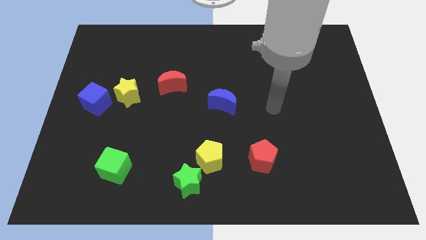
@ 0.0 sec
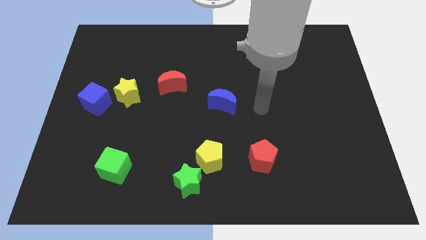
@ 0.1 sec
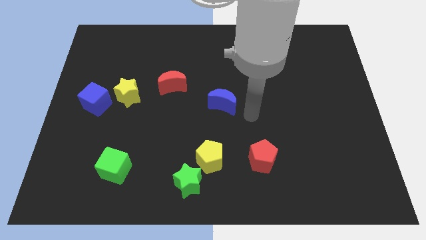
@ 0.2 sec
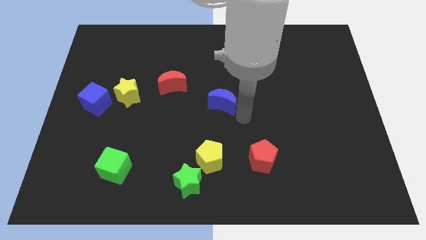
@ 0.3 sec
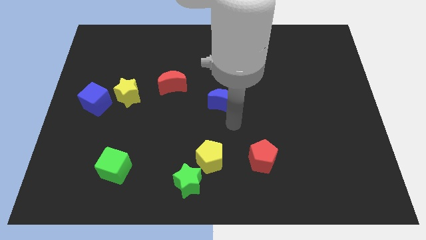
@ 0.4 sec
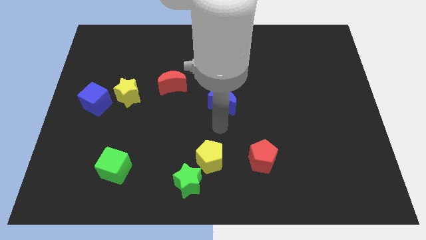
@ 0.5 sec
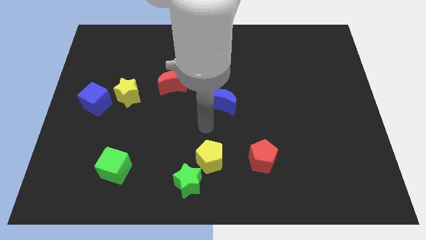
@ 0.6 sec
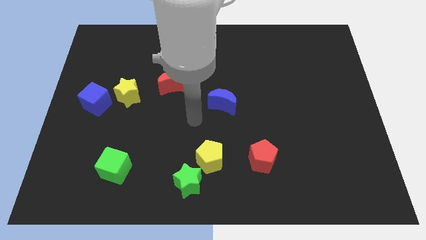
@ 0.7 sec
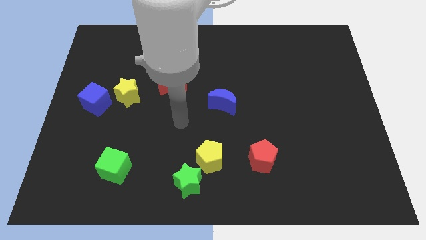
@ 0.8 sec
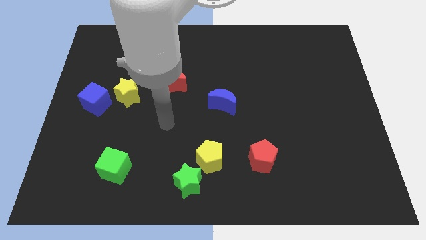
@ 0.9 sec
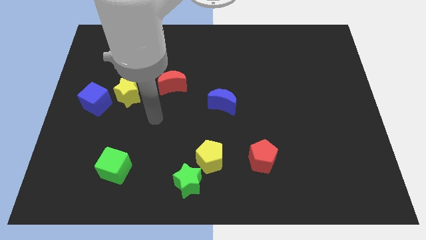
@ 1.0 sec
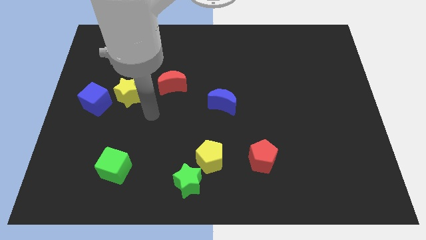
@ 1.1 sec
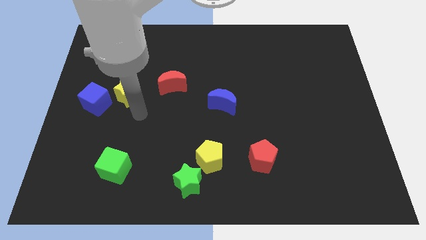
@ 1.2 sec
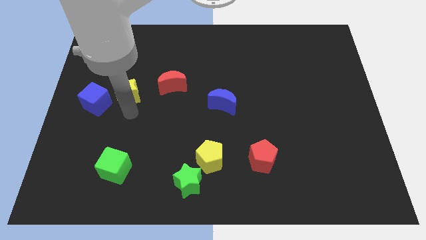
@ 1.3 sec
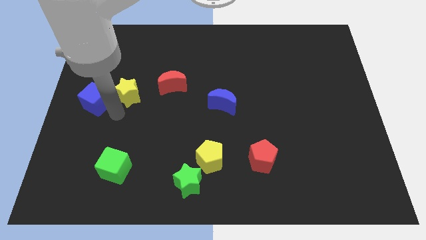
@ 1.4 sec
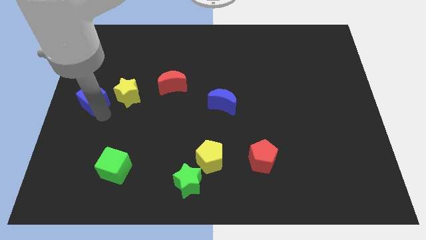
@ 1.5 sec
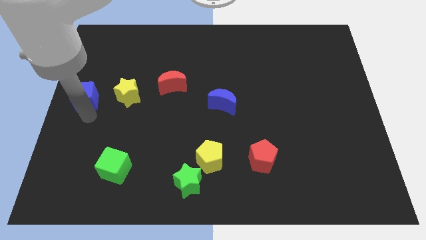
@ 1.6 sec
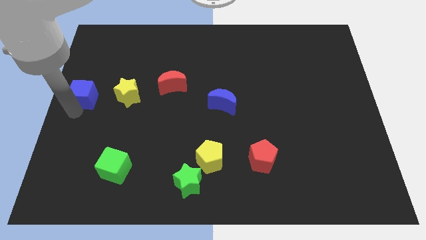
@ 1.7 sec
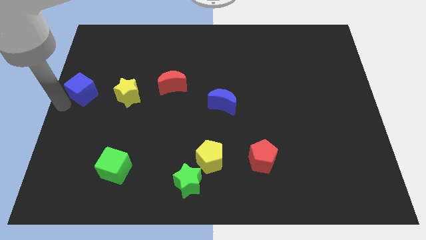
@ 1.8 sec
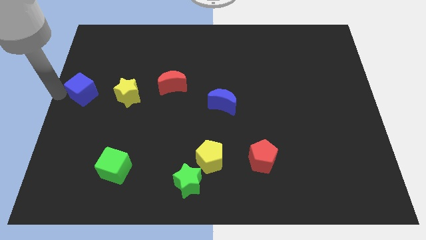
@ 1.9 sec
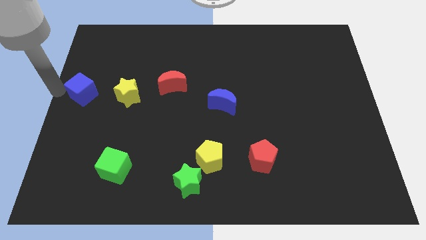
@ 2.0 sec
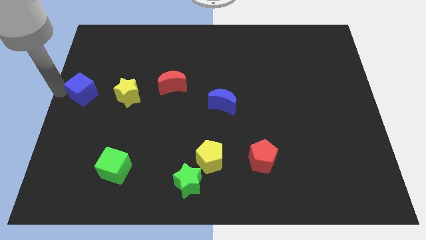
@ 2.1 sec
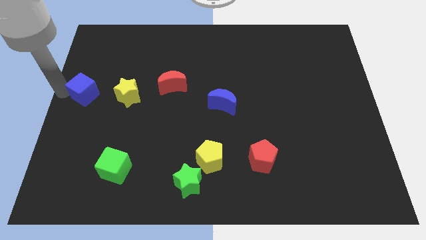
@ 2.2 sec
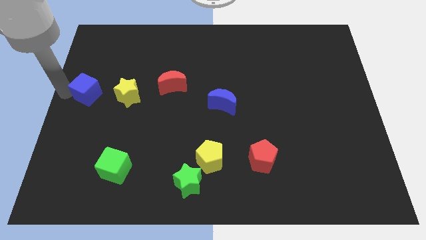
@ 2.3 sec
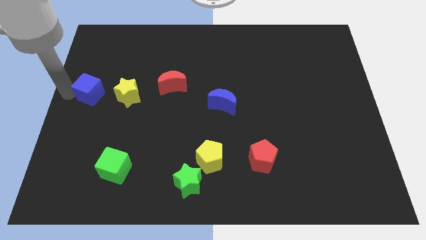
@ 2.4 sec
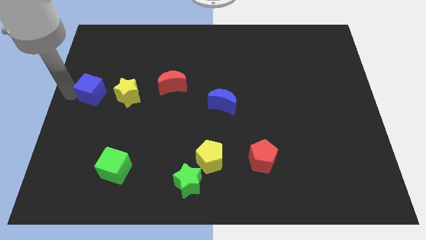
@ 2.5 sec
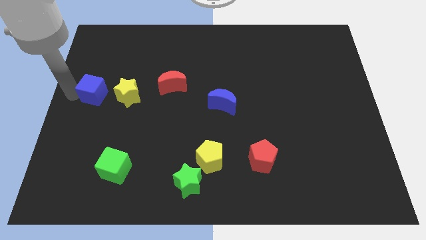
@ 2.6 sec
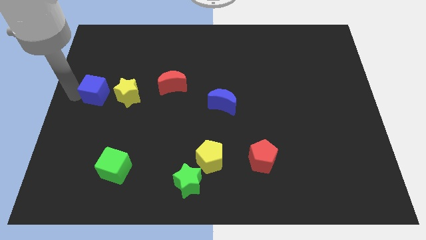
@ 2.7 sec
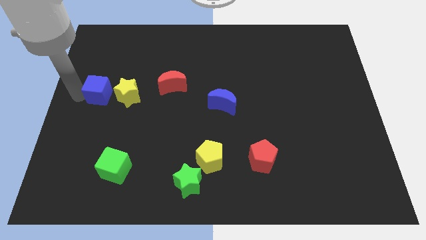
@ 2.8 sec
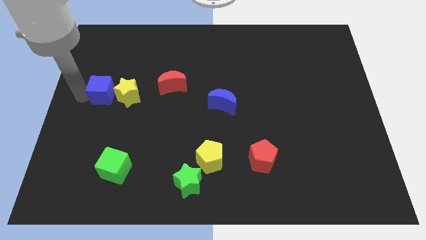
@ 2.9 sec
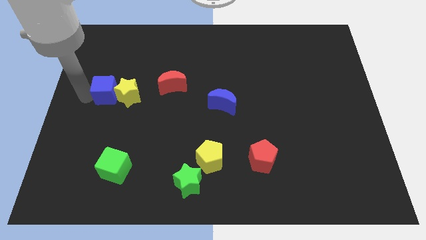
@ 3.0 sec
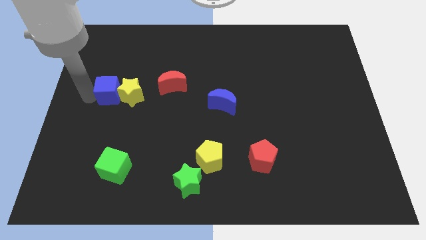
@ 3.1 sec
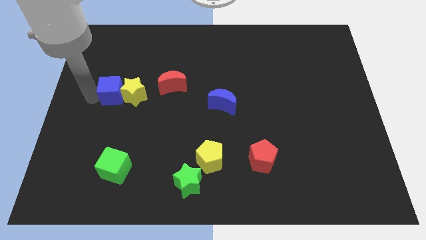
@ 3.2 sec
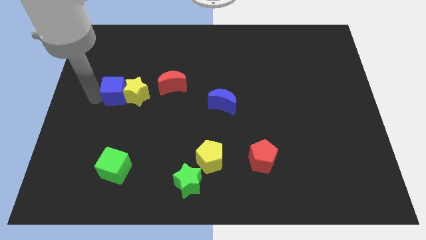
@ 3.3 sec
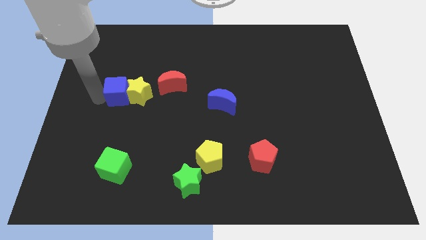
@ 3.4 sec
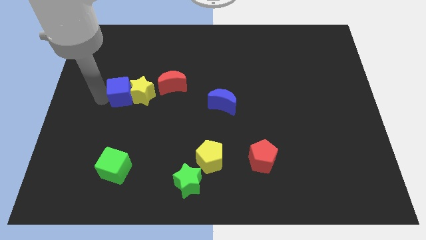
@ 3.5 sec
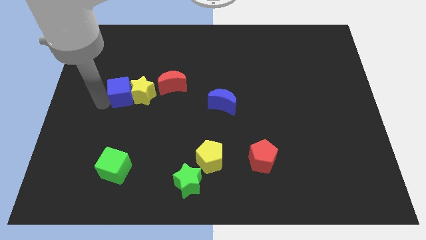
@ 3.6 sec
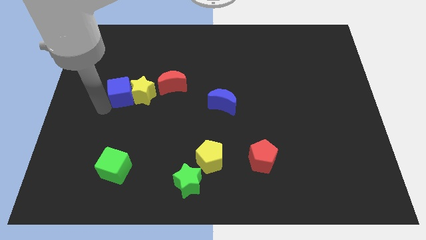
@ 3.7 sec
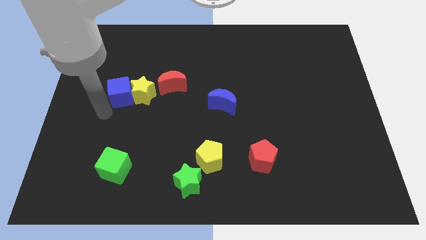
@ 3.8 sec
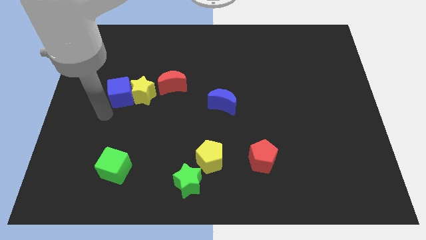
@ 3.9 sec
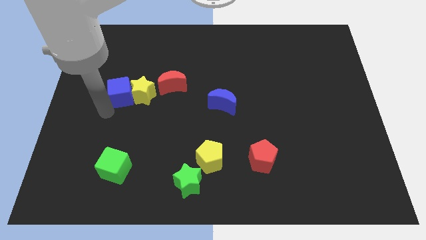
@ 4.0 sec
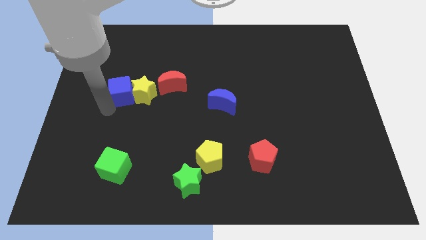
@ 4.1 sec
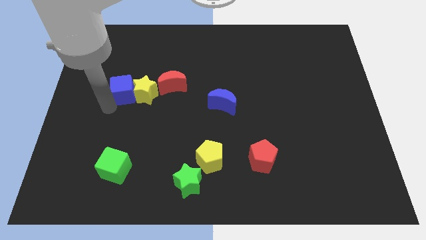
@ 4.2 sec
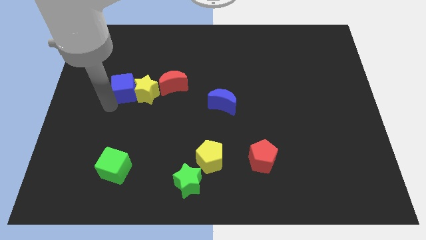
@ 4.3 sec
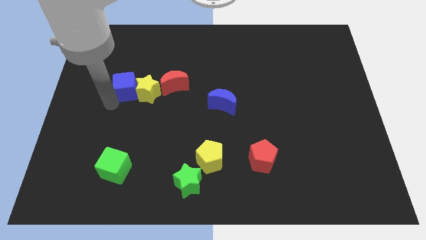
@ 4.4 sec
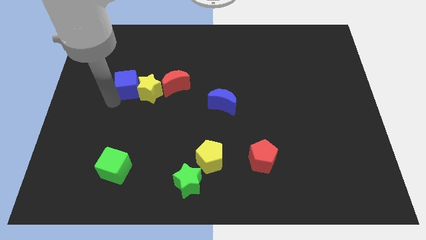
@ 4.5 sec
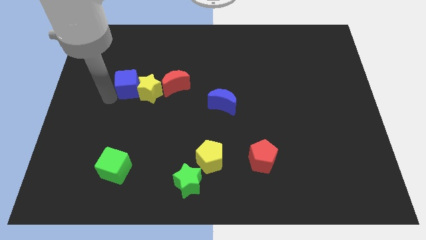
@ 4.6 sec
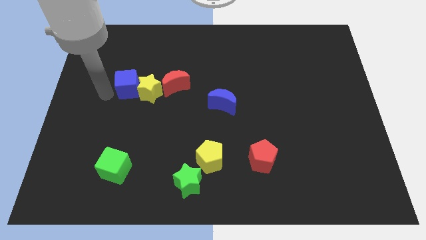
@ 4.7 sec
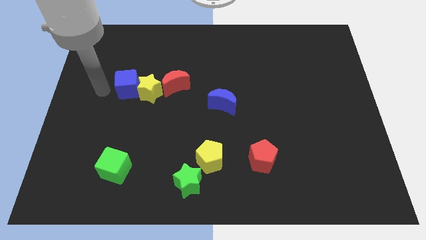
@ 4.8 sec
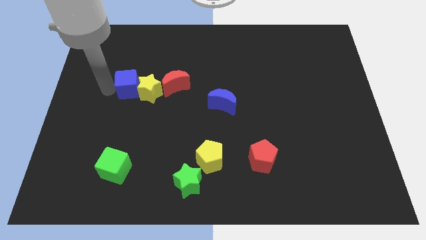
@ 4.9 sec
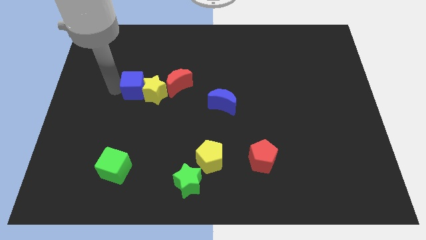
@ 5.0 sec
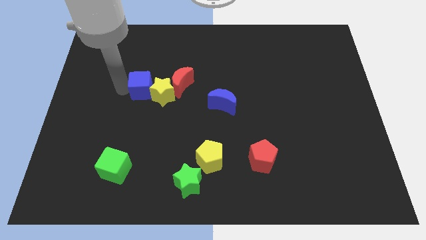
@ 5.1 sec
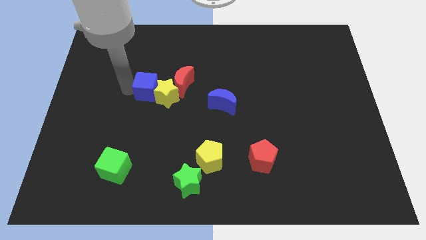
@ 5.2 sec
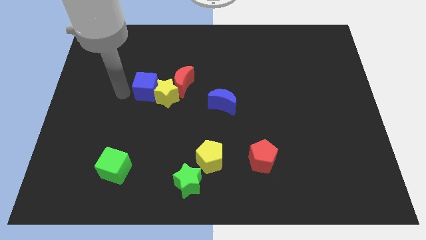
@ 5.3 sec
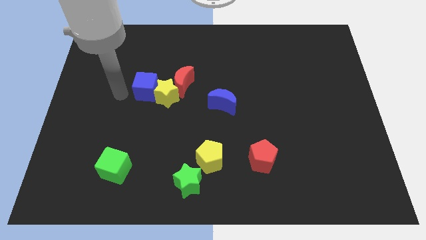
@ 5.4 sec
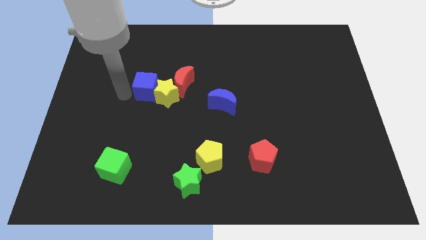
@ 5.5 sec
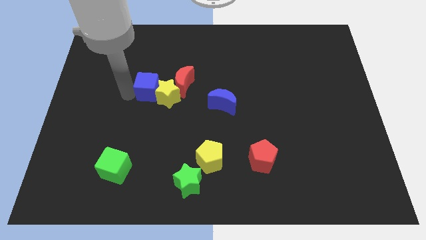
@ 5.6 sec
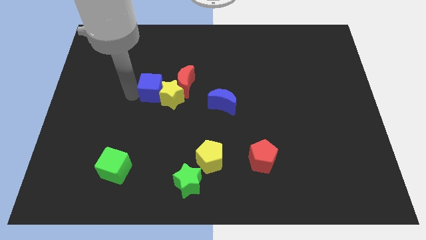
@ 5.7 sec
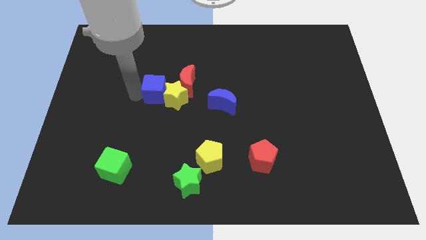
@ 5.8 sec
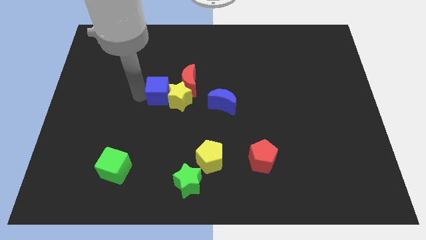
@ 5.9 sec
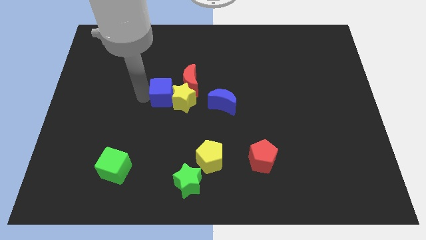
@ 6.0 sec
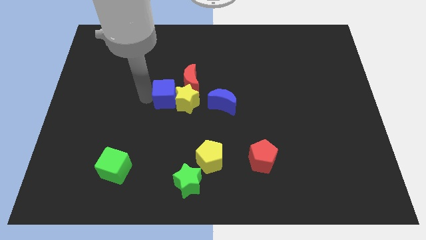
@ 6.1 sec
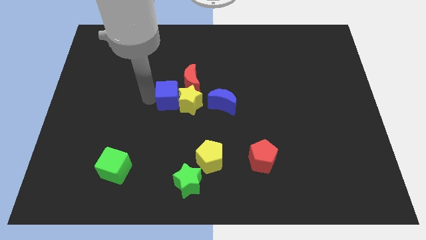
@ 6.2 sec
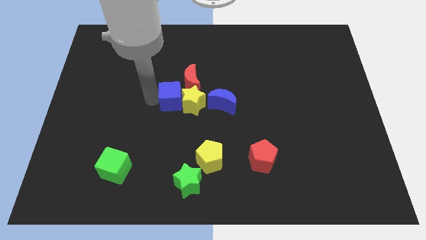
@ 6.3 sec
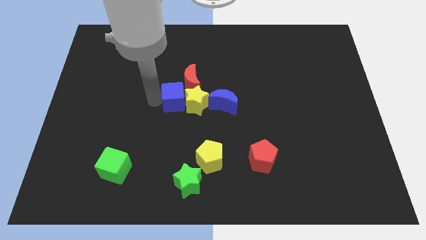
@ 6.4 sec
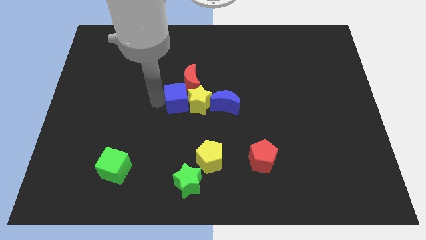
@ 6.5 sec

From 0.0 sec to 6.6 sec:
slide the blue cube towards the red moon

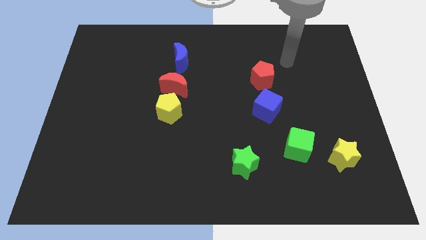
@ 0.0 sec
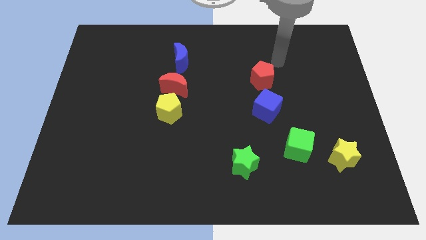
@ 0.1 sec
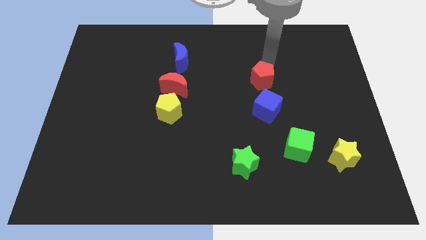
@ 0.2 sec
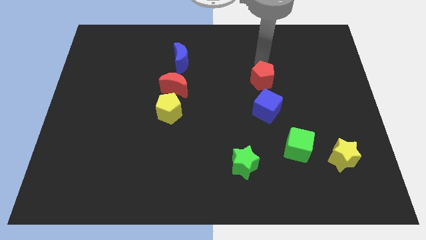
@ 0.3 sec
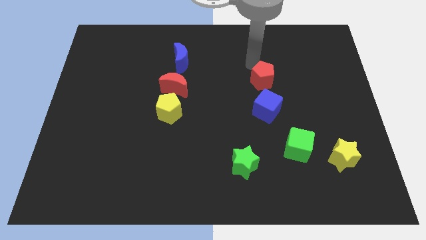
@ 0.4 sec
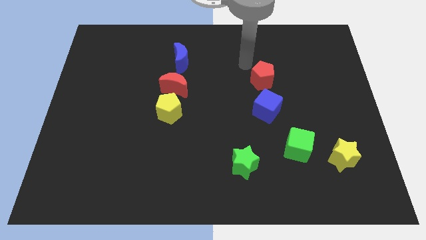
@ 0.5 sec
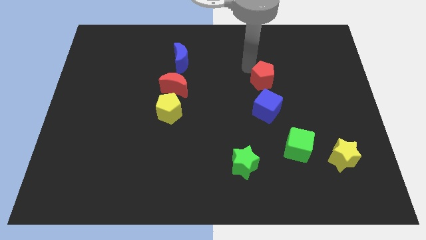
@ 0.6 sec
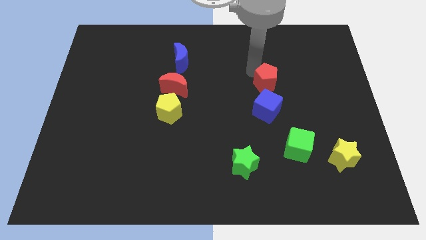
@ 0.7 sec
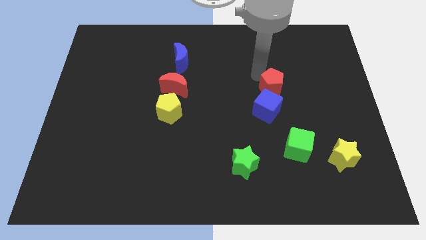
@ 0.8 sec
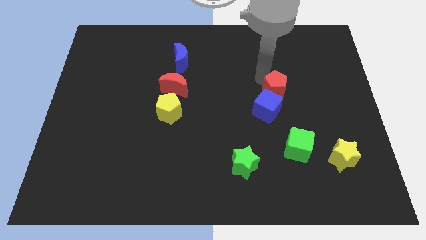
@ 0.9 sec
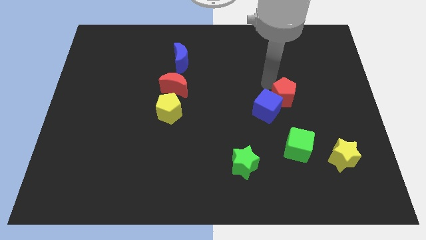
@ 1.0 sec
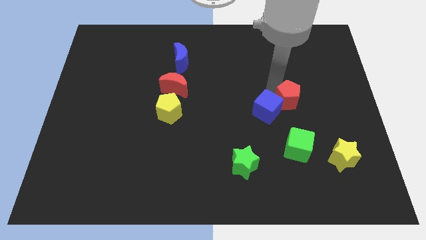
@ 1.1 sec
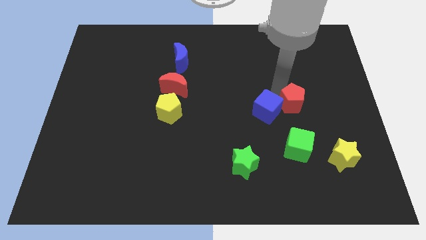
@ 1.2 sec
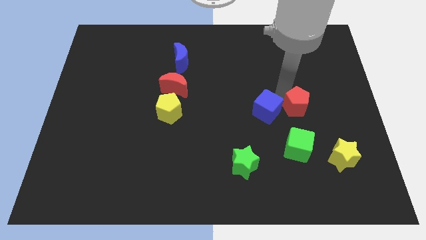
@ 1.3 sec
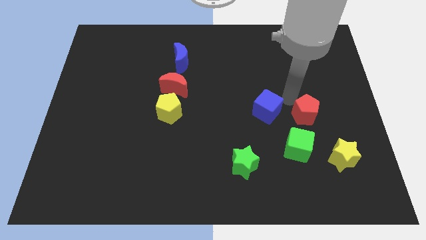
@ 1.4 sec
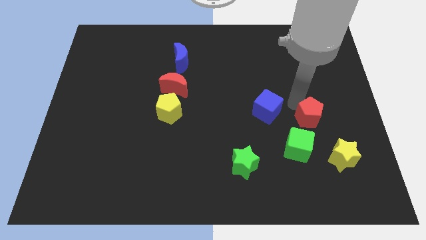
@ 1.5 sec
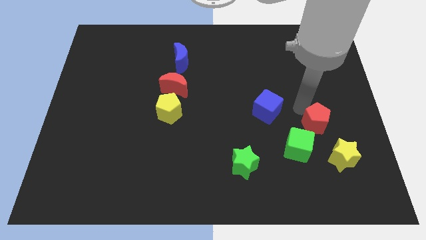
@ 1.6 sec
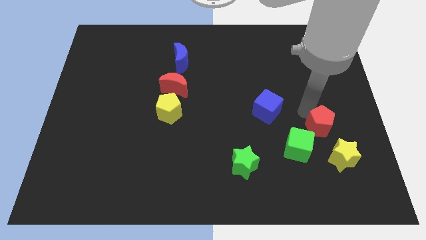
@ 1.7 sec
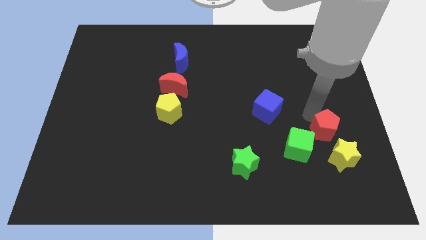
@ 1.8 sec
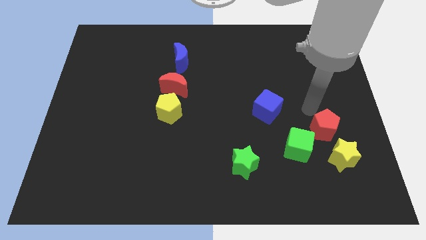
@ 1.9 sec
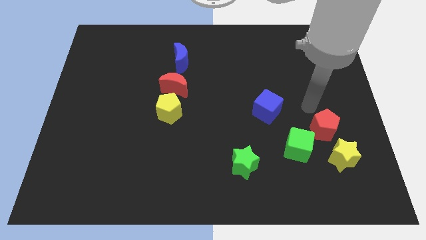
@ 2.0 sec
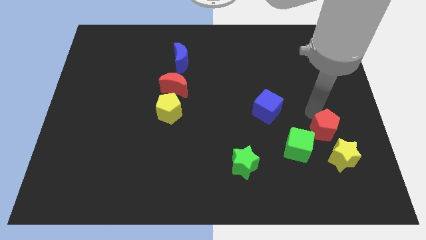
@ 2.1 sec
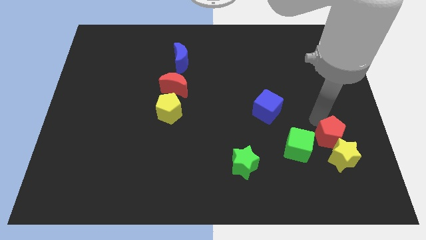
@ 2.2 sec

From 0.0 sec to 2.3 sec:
push the red pentagon close to the yellow star
